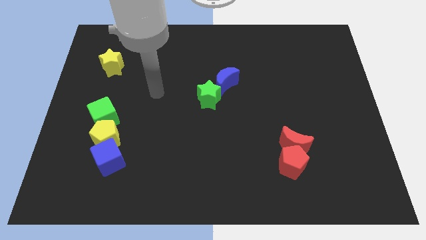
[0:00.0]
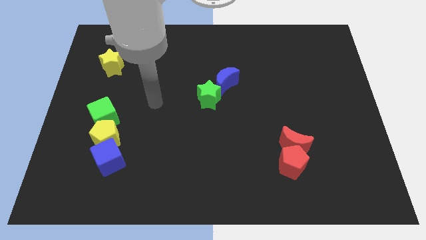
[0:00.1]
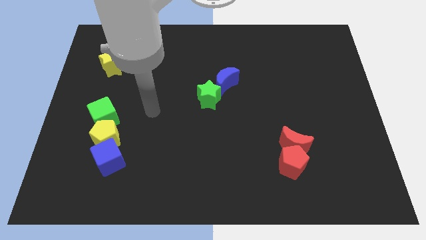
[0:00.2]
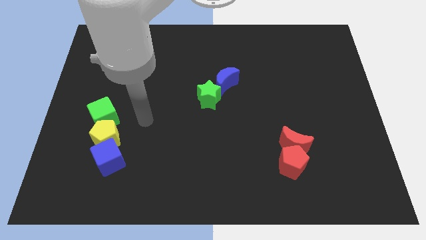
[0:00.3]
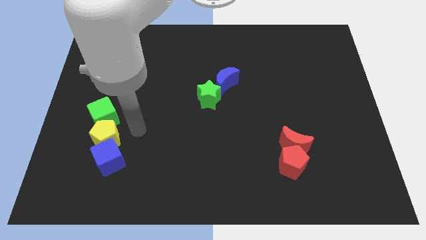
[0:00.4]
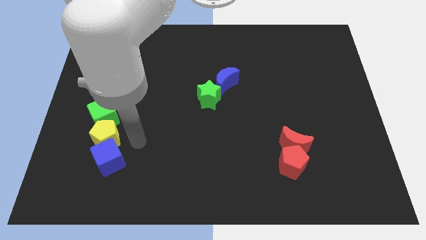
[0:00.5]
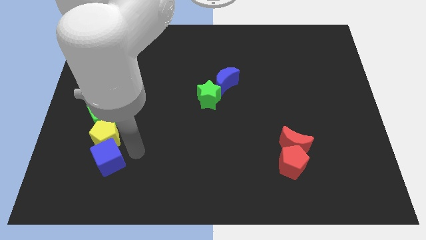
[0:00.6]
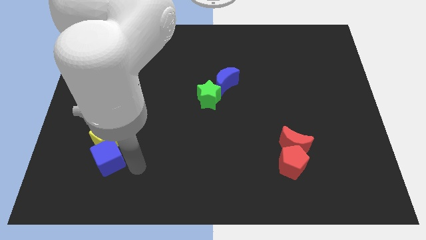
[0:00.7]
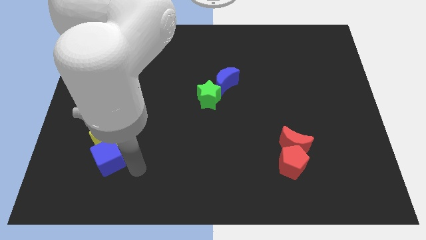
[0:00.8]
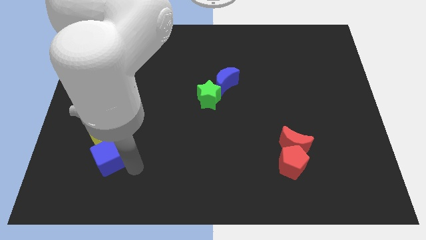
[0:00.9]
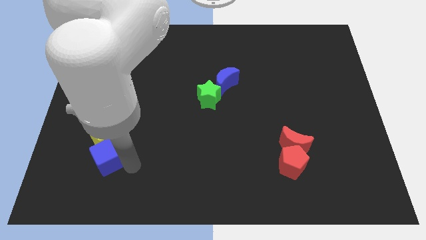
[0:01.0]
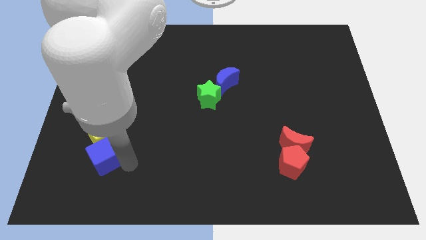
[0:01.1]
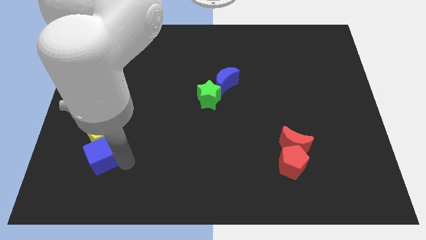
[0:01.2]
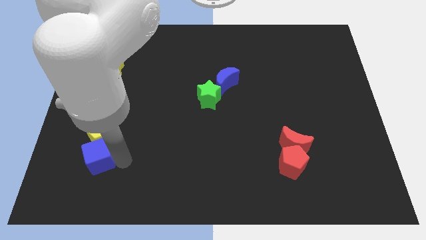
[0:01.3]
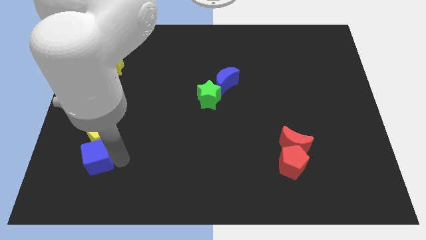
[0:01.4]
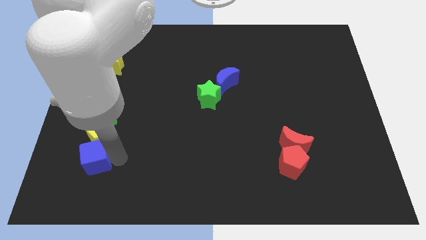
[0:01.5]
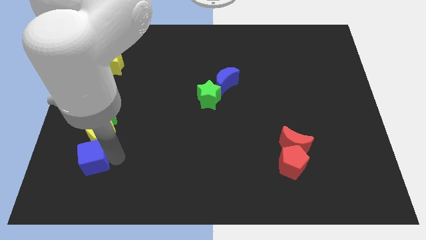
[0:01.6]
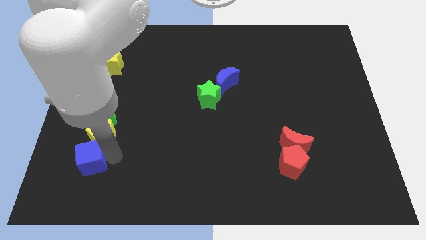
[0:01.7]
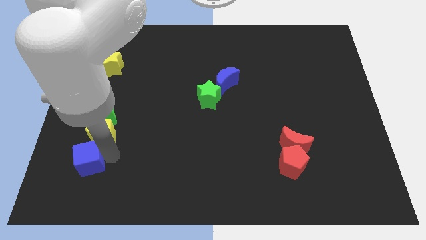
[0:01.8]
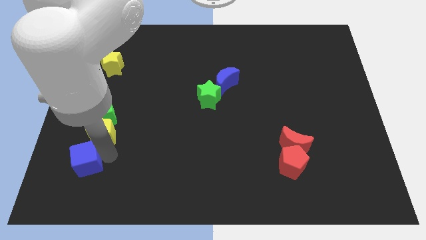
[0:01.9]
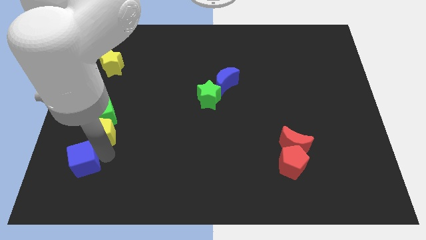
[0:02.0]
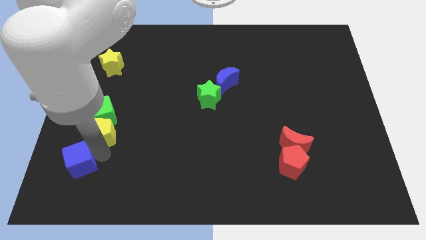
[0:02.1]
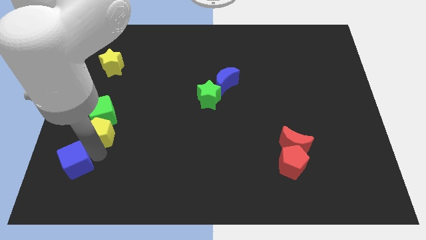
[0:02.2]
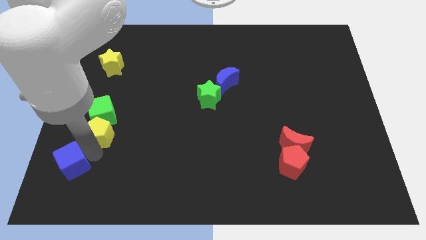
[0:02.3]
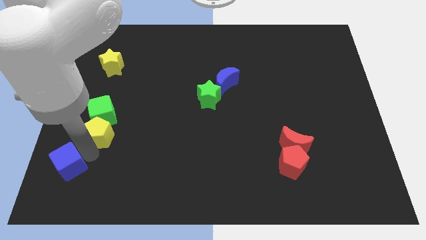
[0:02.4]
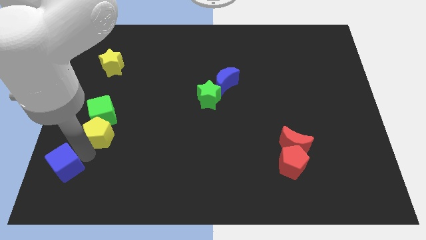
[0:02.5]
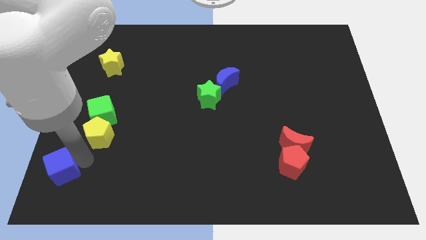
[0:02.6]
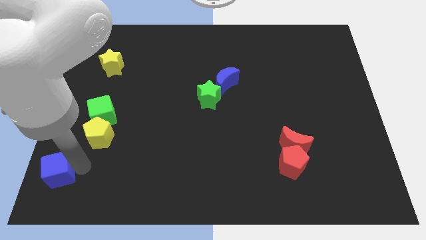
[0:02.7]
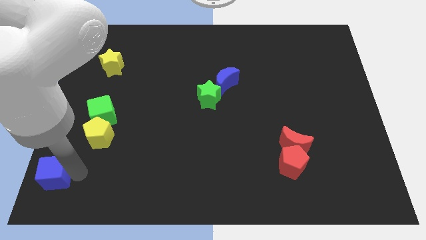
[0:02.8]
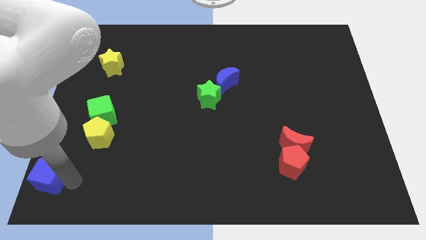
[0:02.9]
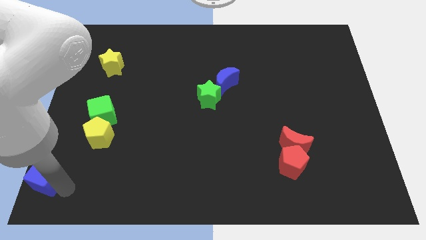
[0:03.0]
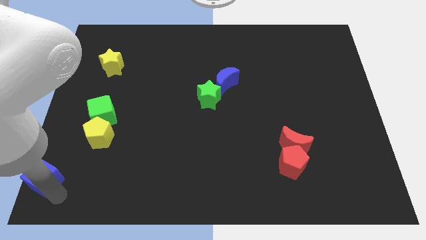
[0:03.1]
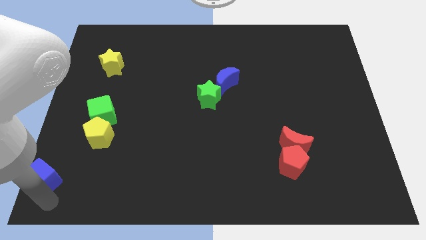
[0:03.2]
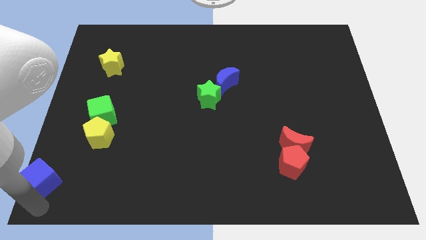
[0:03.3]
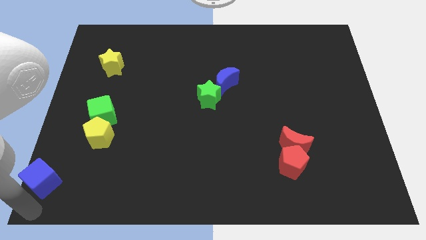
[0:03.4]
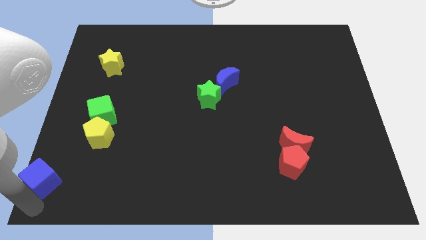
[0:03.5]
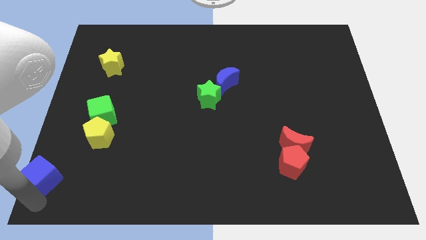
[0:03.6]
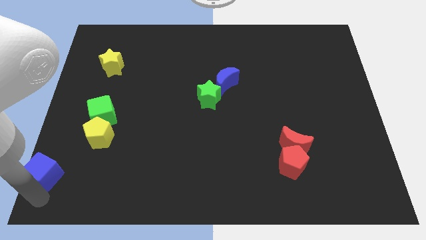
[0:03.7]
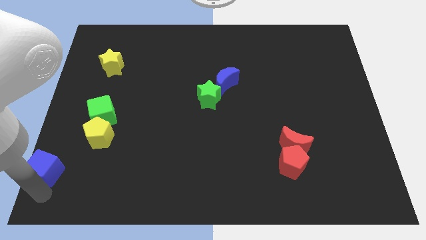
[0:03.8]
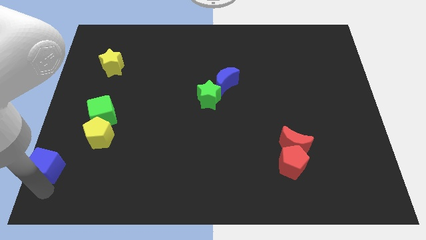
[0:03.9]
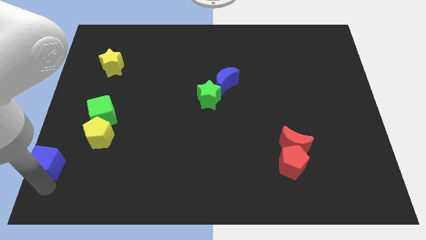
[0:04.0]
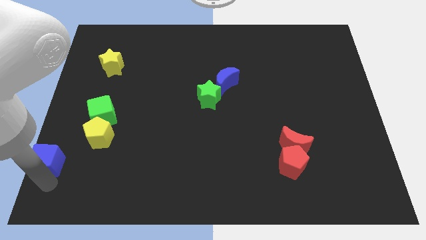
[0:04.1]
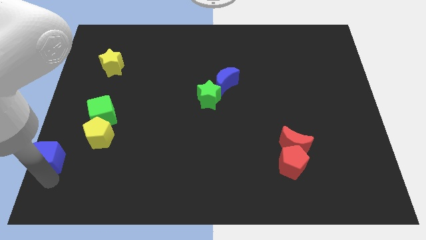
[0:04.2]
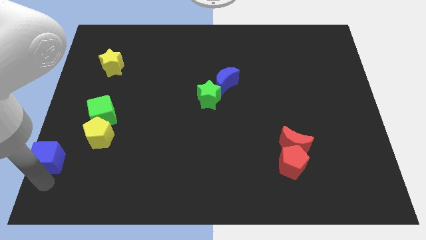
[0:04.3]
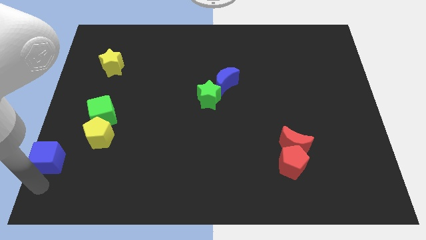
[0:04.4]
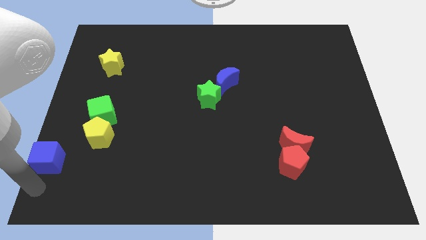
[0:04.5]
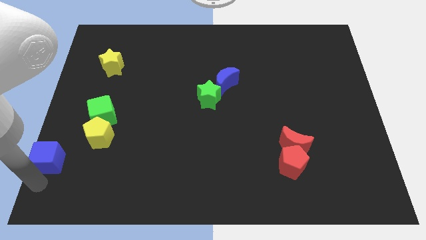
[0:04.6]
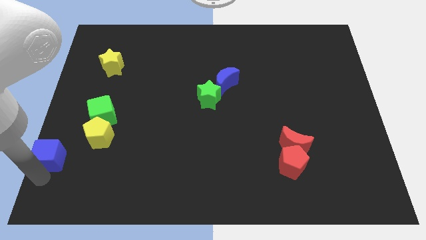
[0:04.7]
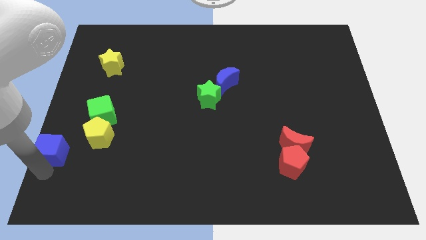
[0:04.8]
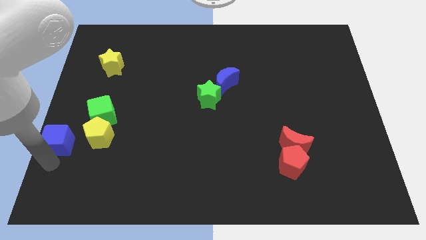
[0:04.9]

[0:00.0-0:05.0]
push the blue cube to the left side of the board

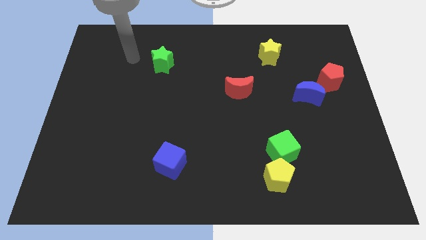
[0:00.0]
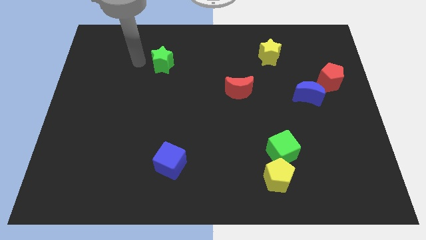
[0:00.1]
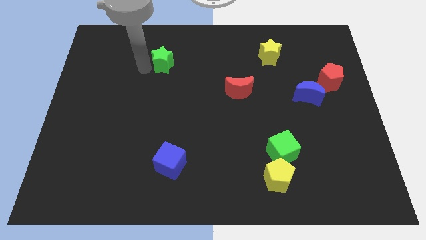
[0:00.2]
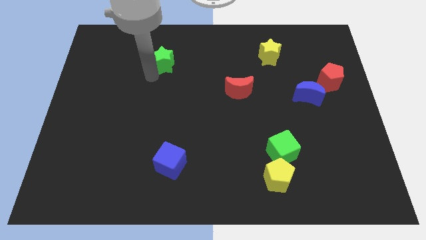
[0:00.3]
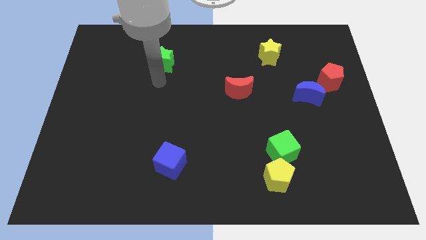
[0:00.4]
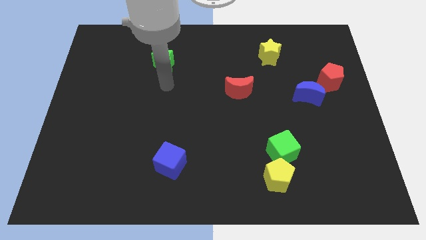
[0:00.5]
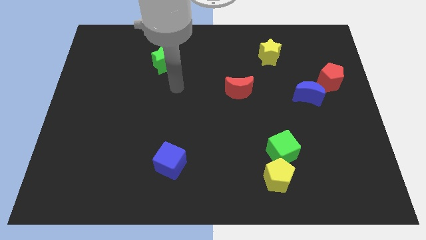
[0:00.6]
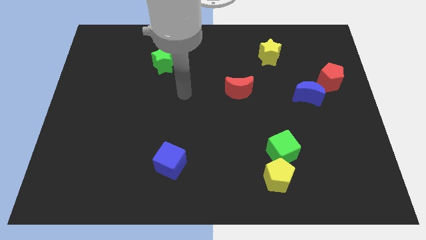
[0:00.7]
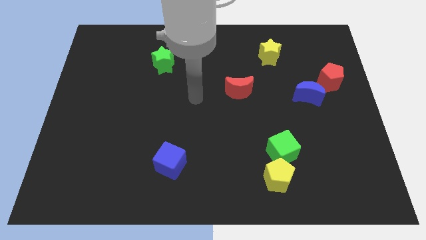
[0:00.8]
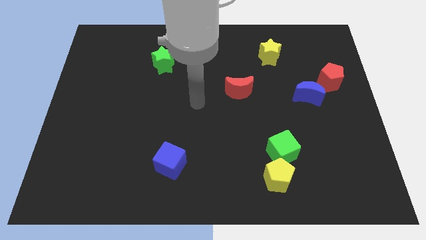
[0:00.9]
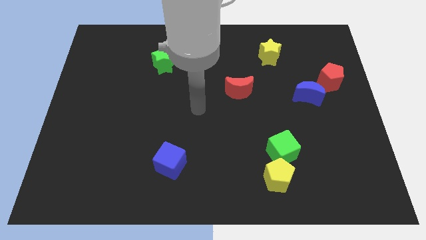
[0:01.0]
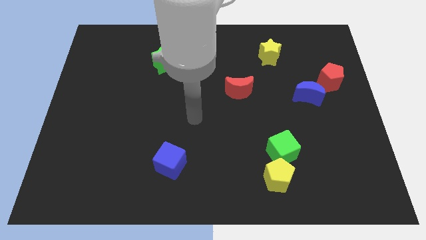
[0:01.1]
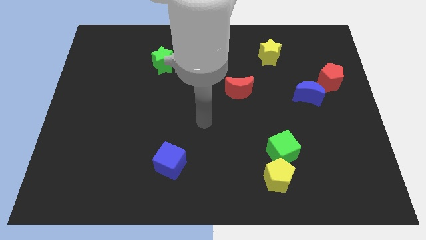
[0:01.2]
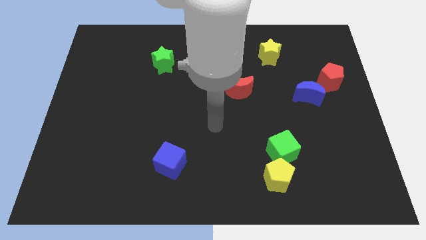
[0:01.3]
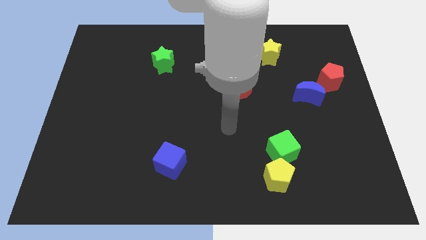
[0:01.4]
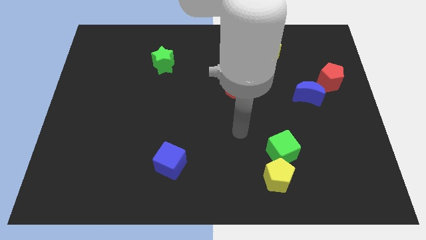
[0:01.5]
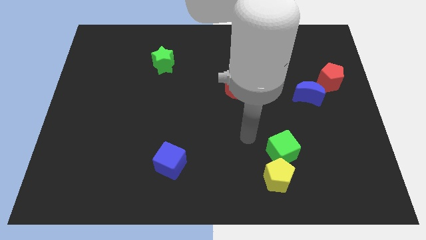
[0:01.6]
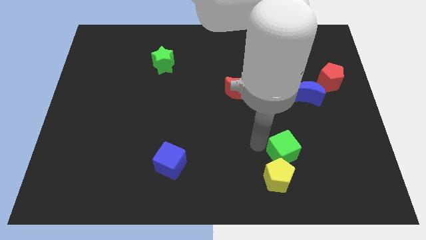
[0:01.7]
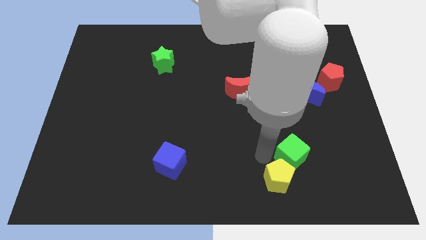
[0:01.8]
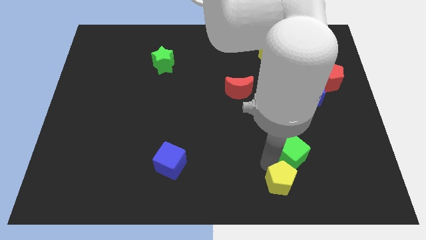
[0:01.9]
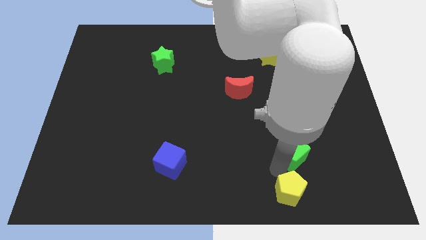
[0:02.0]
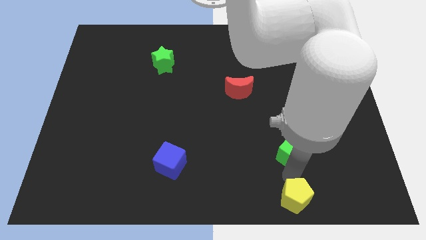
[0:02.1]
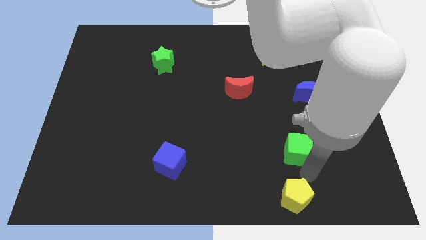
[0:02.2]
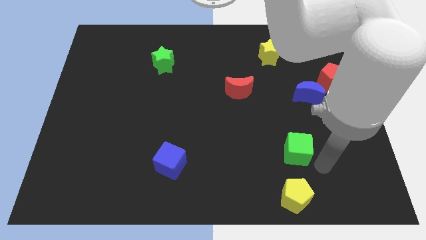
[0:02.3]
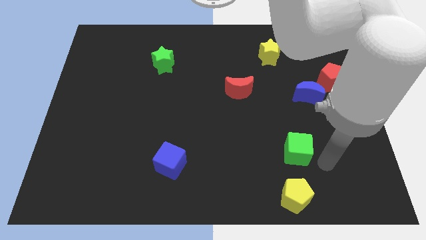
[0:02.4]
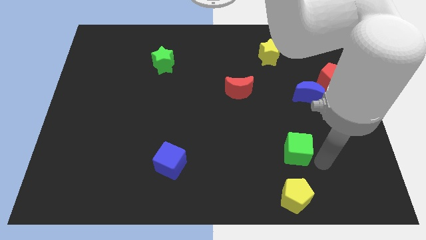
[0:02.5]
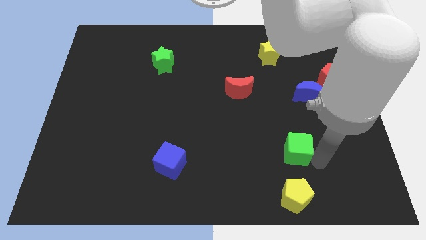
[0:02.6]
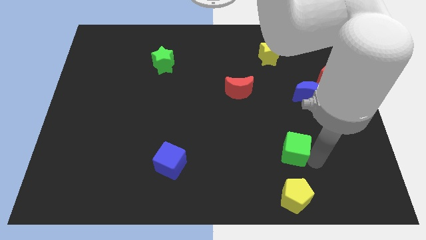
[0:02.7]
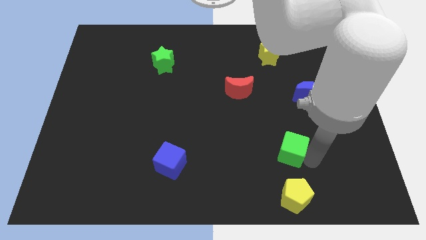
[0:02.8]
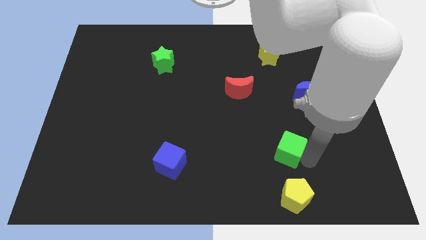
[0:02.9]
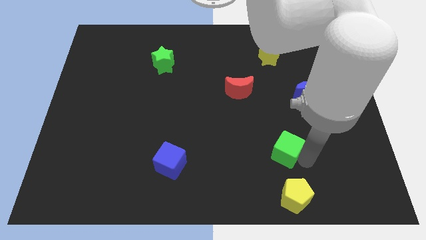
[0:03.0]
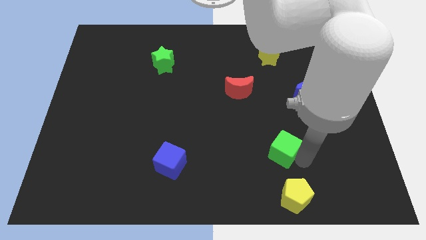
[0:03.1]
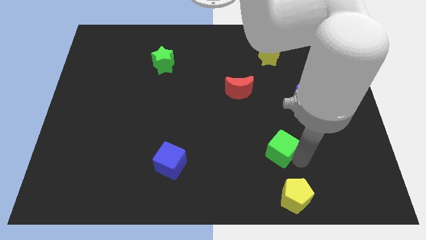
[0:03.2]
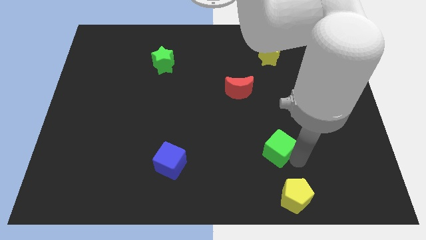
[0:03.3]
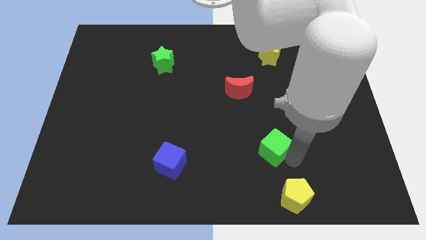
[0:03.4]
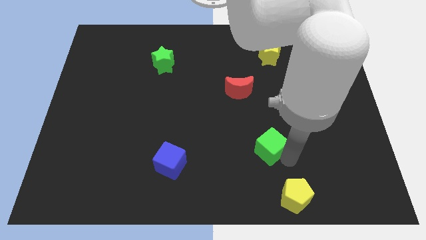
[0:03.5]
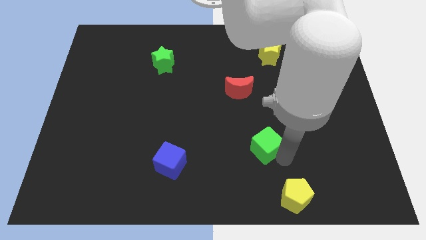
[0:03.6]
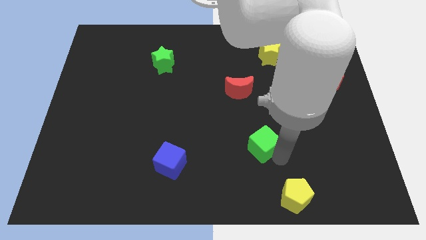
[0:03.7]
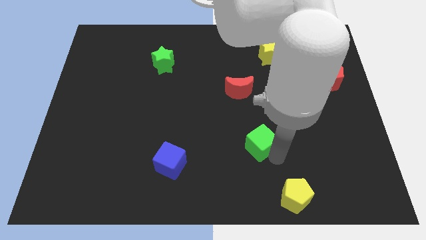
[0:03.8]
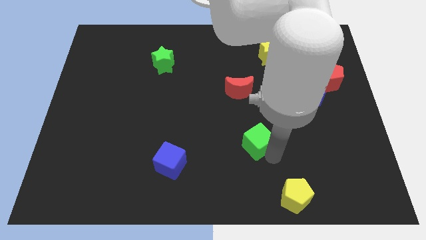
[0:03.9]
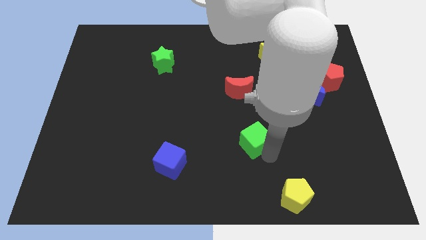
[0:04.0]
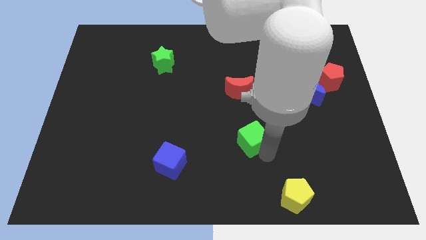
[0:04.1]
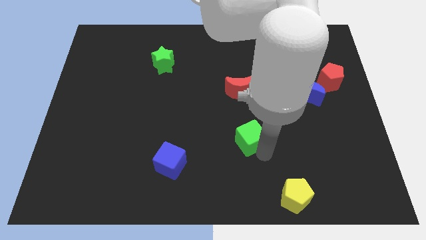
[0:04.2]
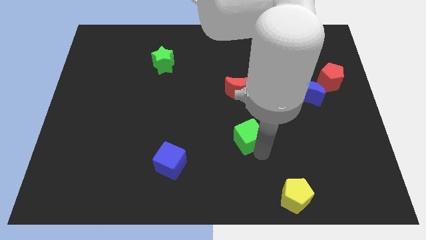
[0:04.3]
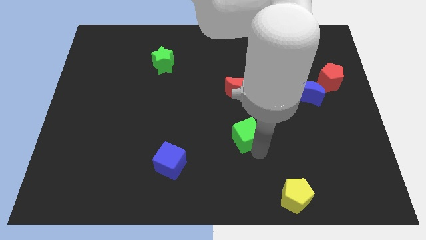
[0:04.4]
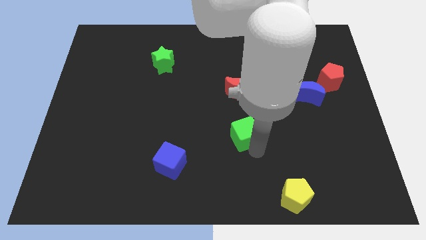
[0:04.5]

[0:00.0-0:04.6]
push the green cube to the middle of the board
